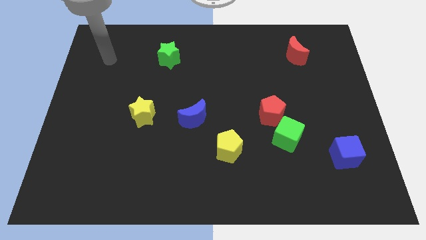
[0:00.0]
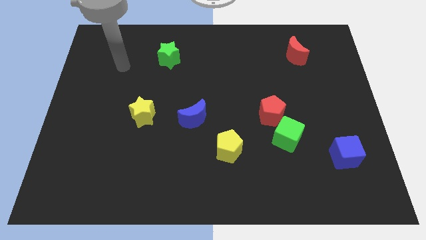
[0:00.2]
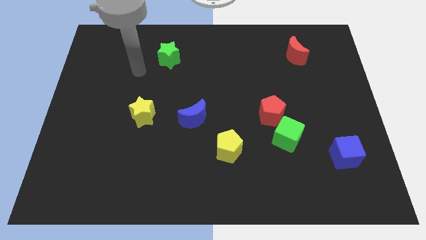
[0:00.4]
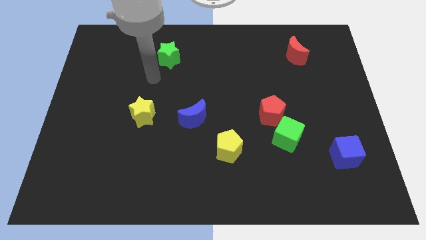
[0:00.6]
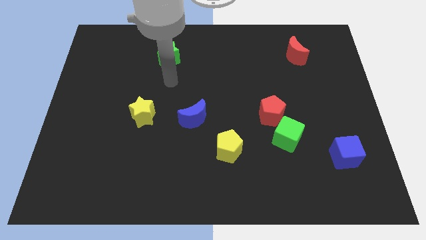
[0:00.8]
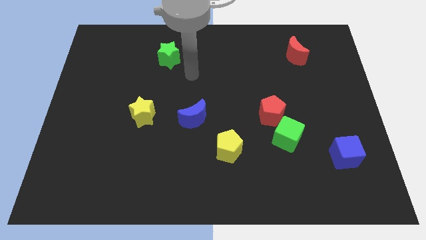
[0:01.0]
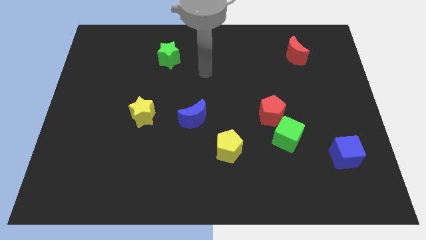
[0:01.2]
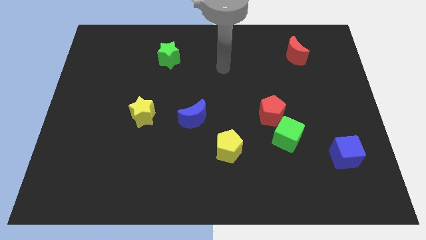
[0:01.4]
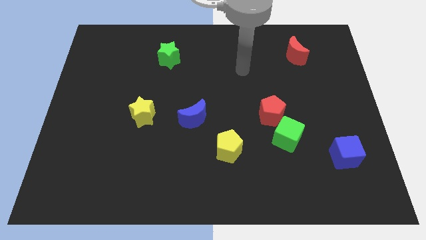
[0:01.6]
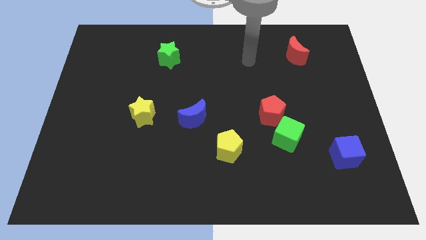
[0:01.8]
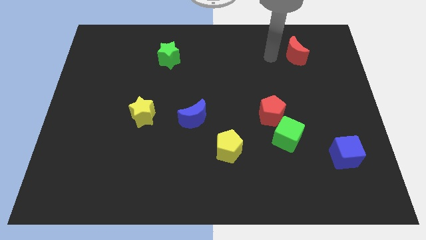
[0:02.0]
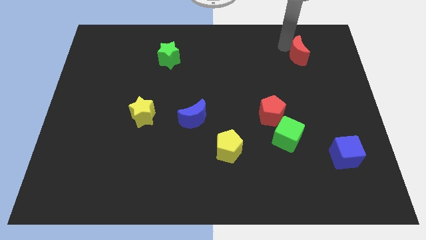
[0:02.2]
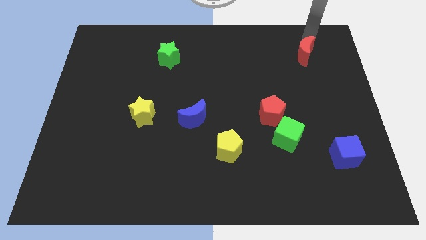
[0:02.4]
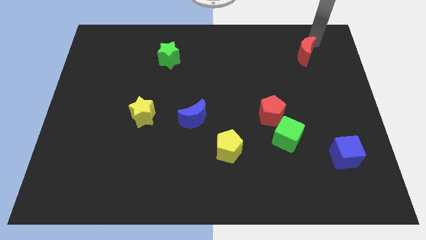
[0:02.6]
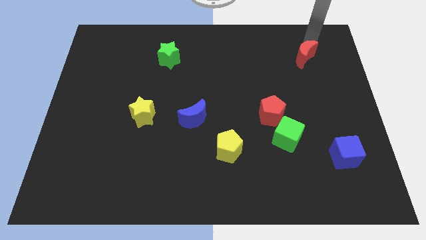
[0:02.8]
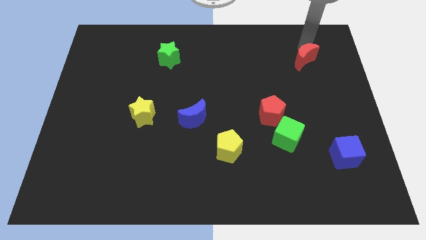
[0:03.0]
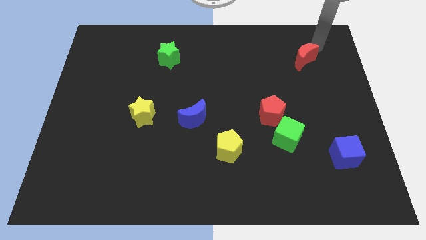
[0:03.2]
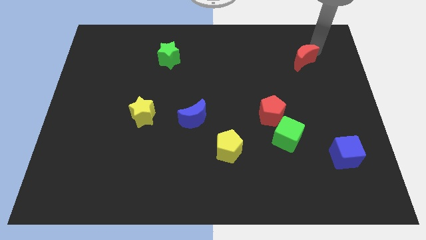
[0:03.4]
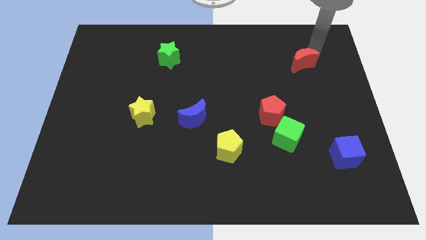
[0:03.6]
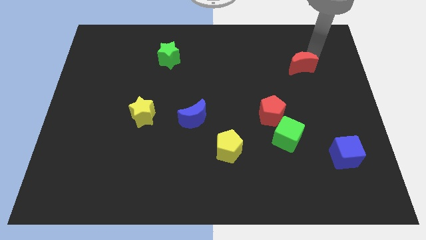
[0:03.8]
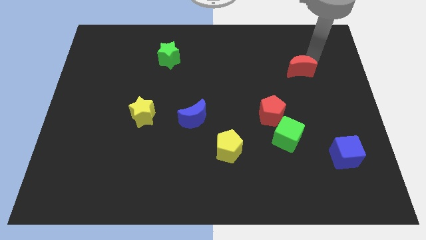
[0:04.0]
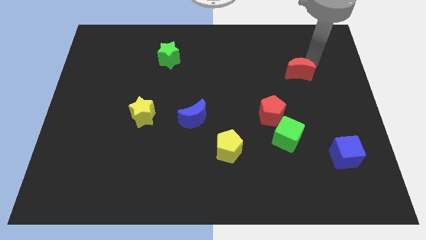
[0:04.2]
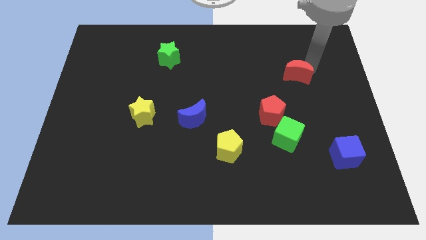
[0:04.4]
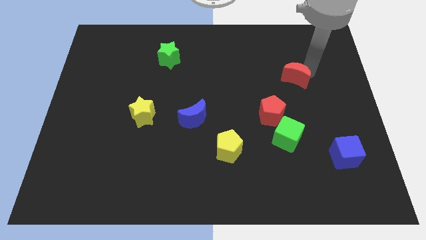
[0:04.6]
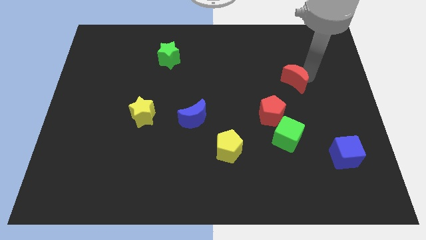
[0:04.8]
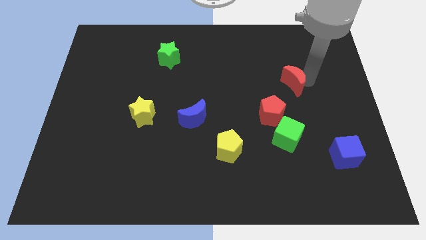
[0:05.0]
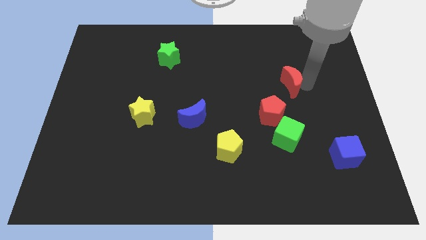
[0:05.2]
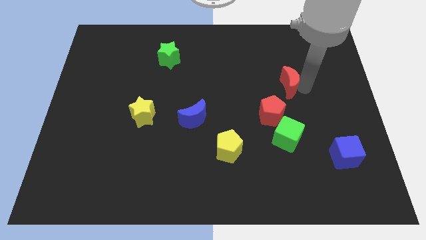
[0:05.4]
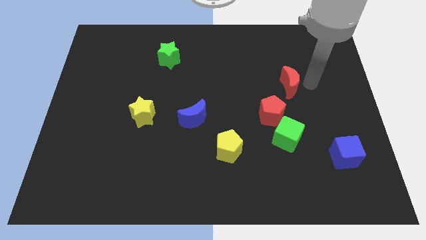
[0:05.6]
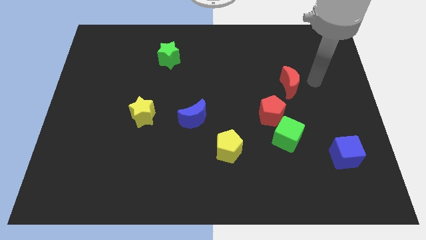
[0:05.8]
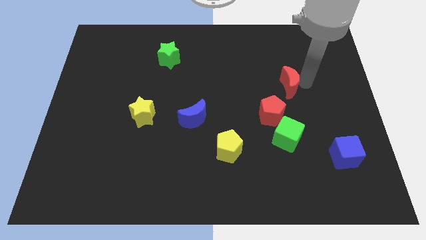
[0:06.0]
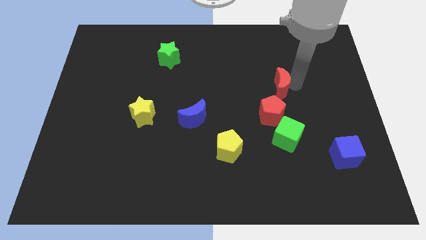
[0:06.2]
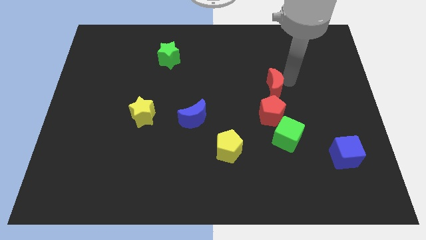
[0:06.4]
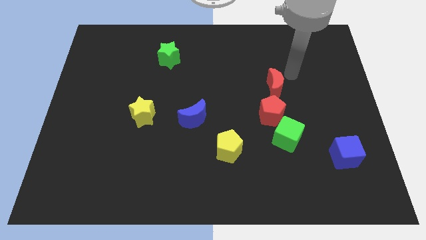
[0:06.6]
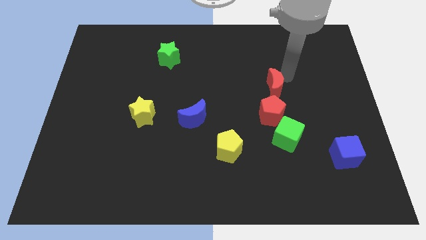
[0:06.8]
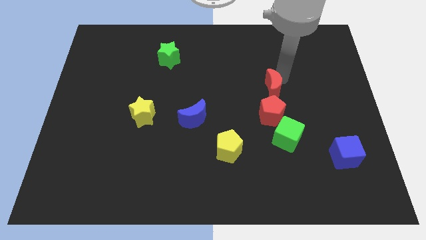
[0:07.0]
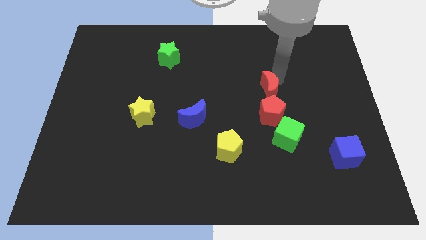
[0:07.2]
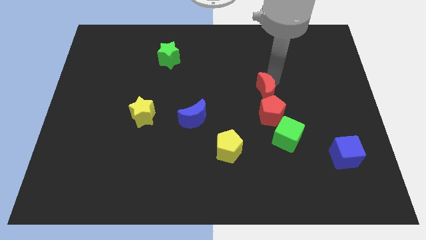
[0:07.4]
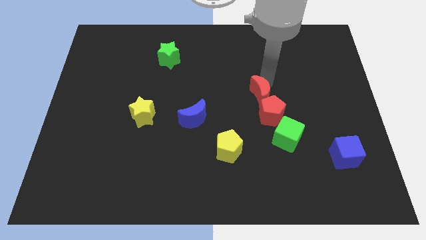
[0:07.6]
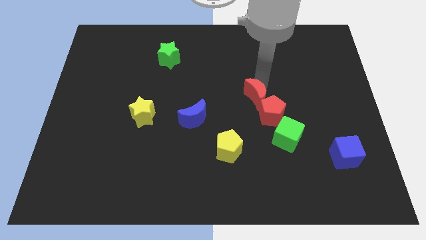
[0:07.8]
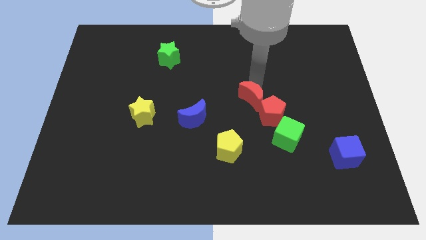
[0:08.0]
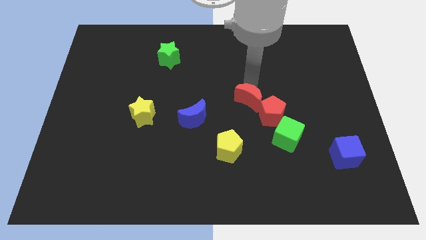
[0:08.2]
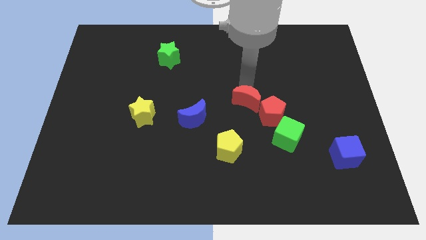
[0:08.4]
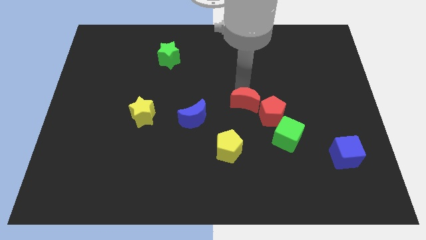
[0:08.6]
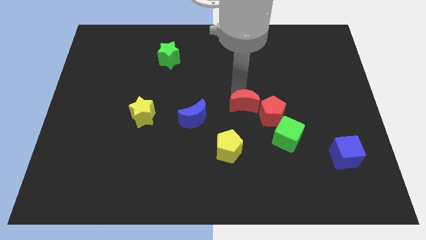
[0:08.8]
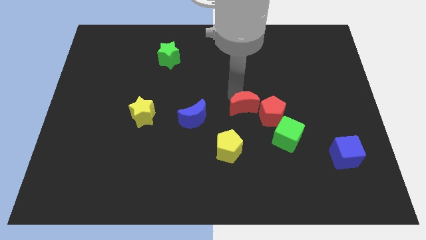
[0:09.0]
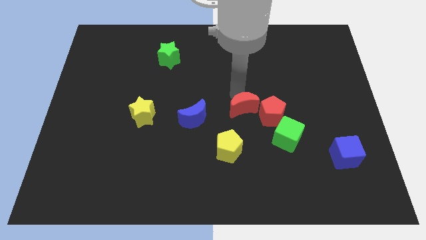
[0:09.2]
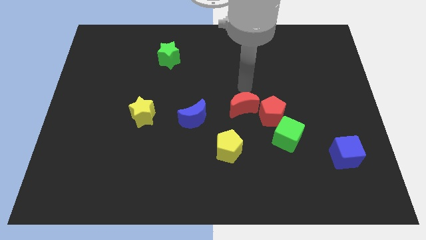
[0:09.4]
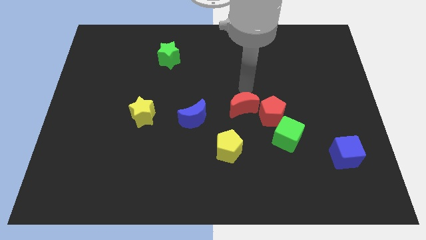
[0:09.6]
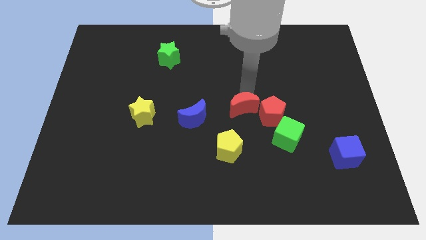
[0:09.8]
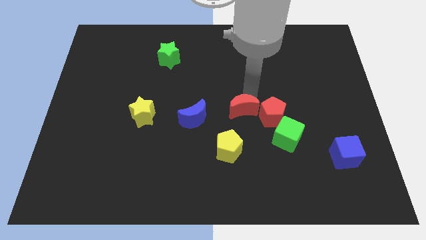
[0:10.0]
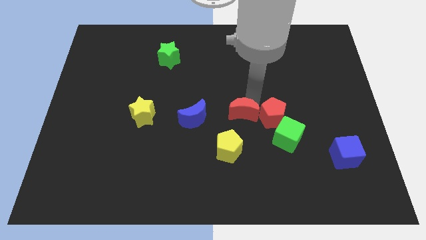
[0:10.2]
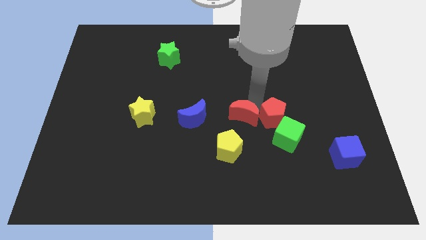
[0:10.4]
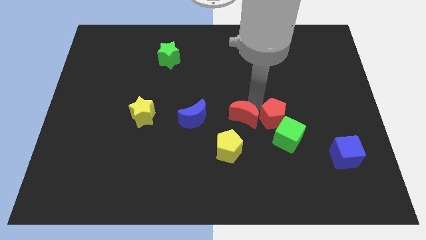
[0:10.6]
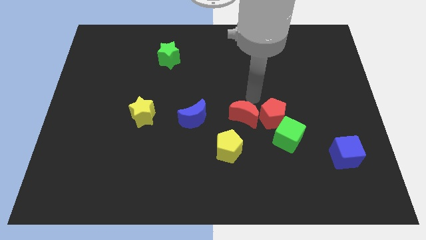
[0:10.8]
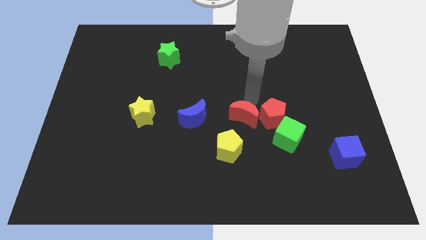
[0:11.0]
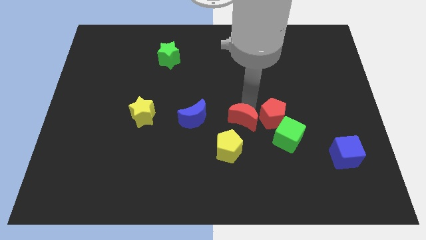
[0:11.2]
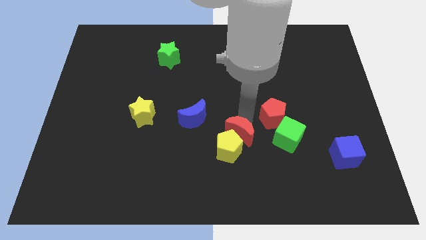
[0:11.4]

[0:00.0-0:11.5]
push the red moon towards the yellow pentagon

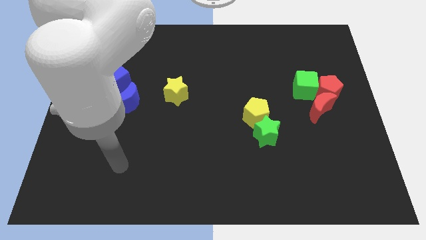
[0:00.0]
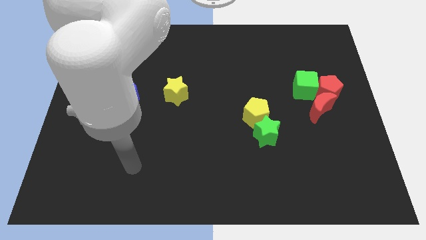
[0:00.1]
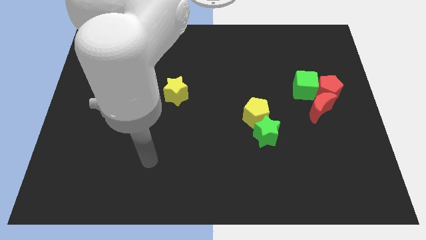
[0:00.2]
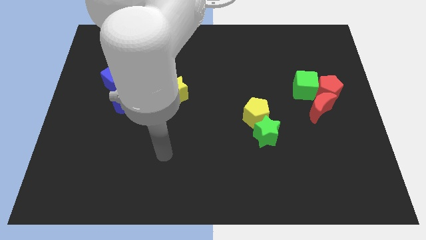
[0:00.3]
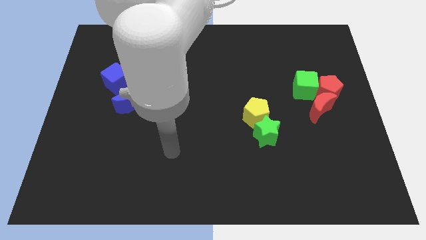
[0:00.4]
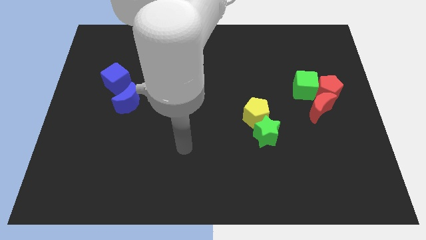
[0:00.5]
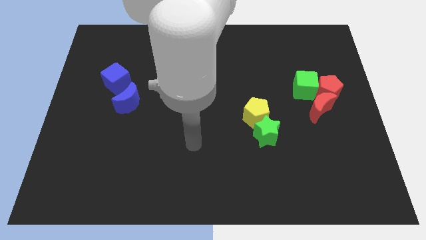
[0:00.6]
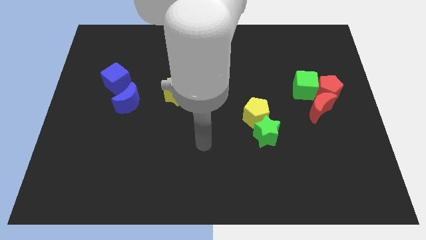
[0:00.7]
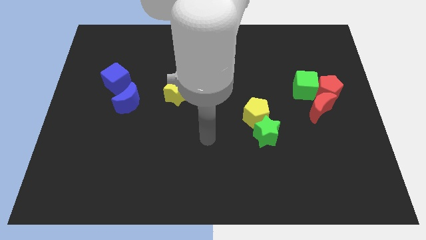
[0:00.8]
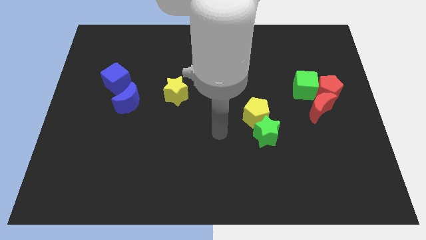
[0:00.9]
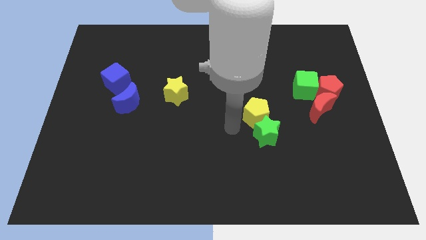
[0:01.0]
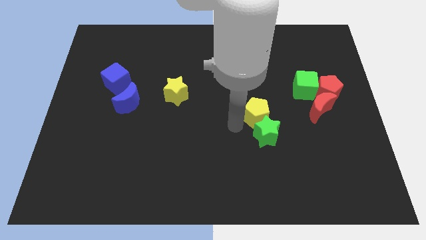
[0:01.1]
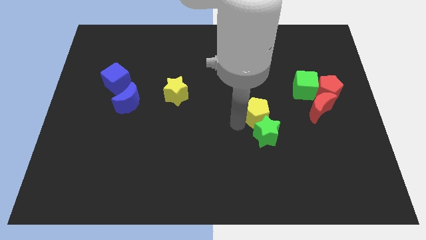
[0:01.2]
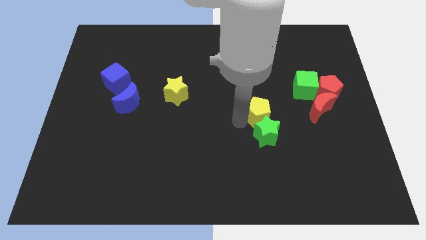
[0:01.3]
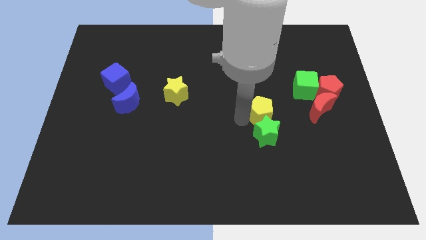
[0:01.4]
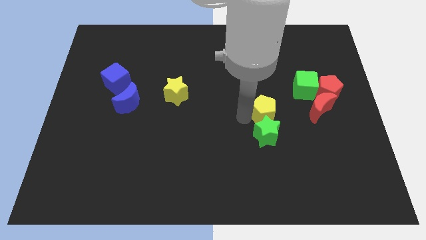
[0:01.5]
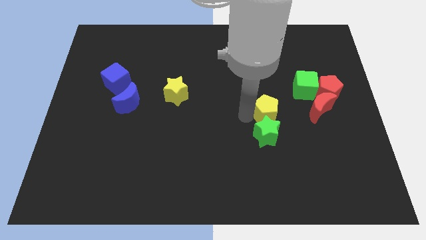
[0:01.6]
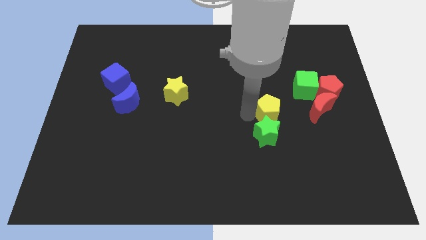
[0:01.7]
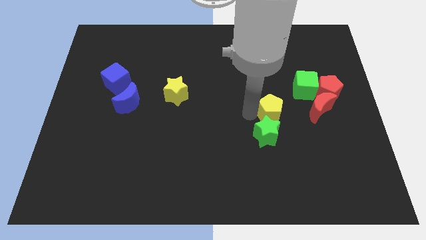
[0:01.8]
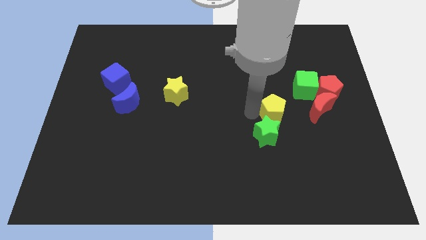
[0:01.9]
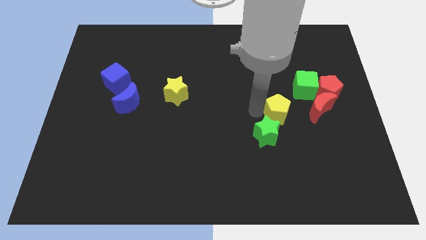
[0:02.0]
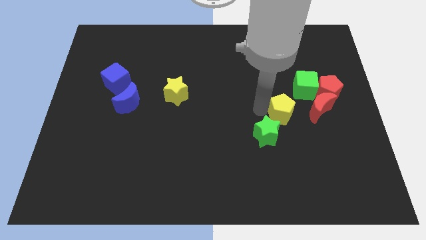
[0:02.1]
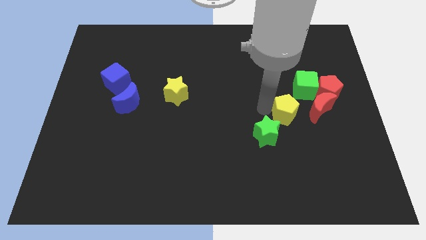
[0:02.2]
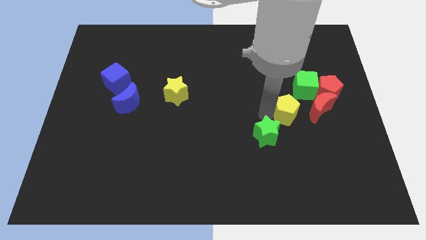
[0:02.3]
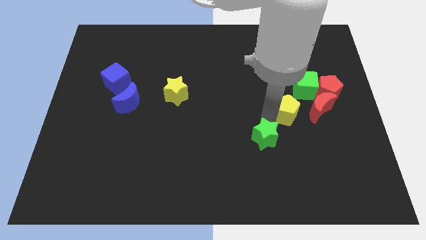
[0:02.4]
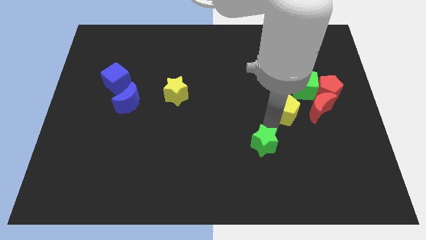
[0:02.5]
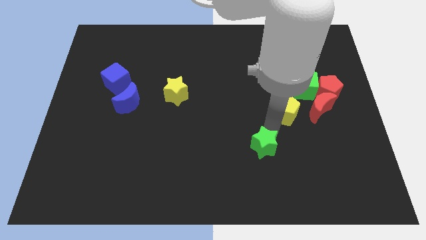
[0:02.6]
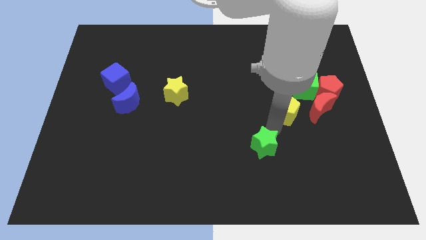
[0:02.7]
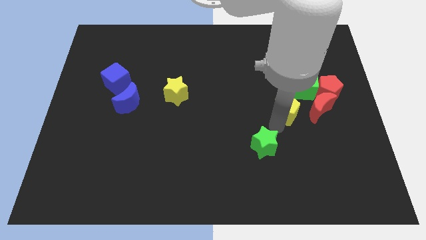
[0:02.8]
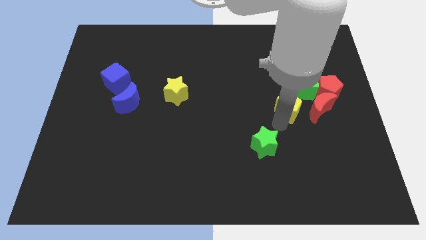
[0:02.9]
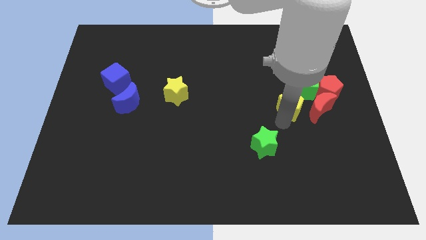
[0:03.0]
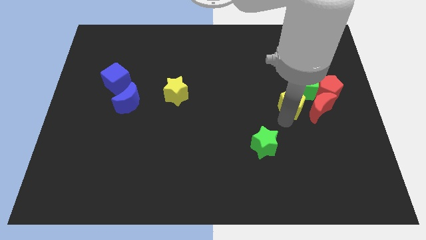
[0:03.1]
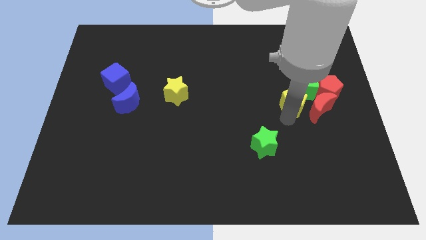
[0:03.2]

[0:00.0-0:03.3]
push the yellow pentagon towards the green cube
